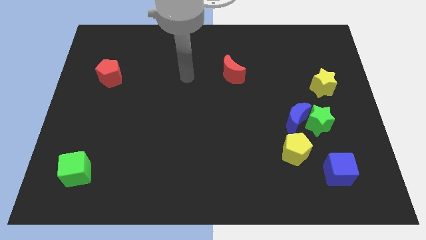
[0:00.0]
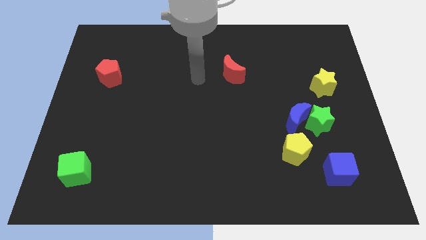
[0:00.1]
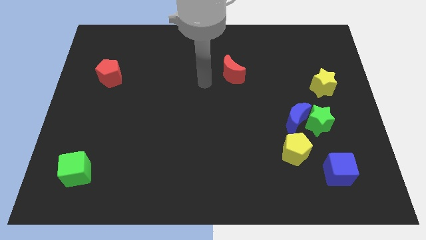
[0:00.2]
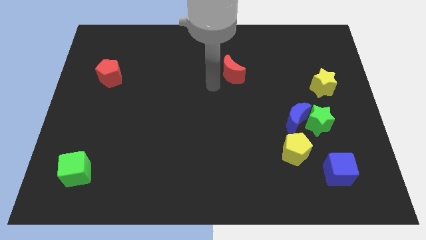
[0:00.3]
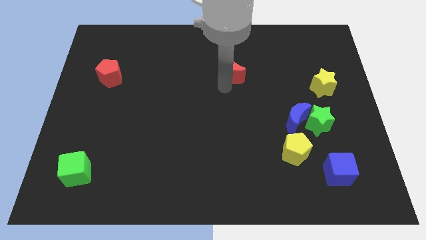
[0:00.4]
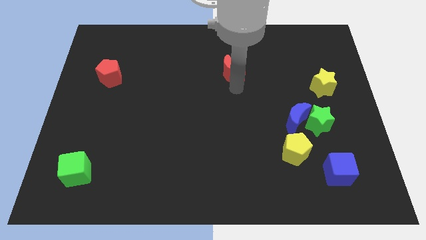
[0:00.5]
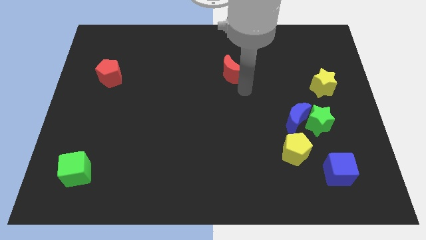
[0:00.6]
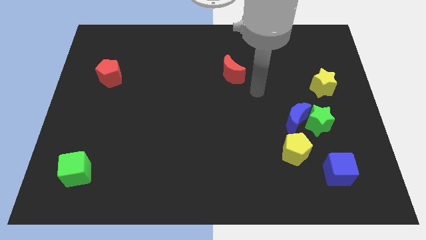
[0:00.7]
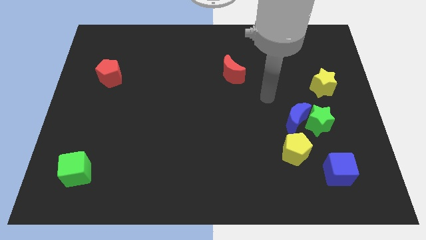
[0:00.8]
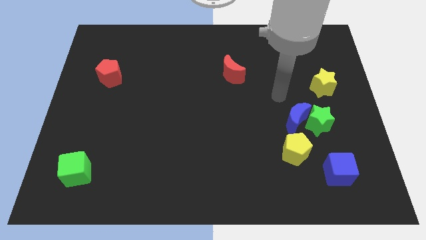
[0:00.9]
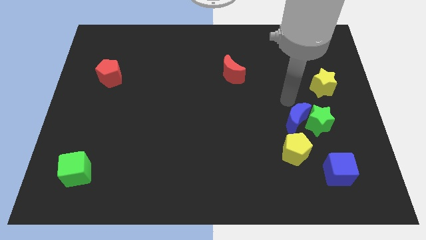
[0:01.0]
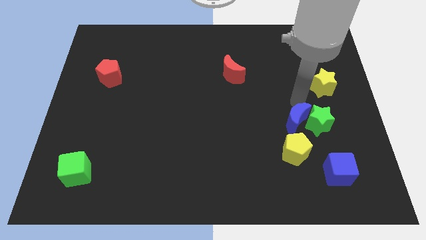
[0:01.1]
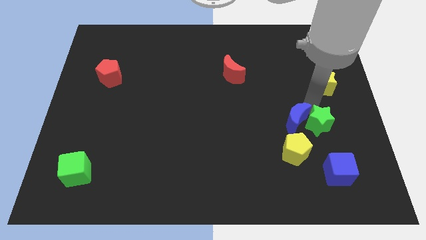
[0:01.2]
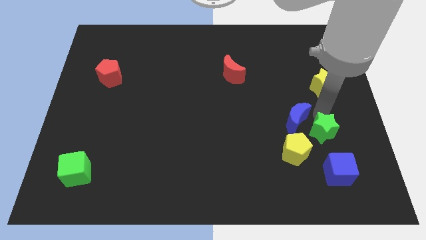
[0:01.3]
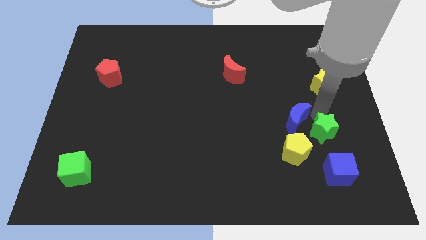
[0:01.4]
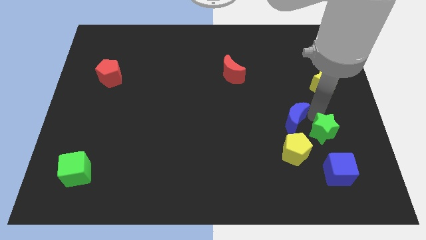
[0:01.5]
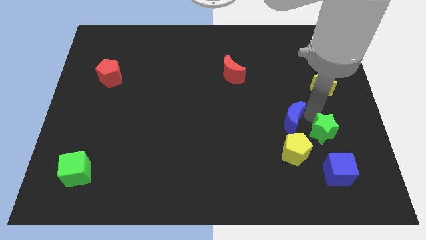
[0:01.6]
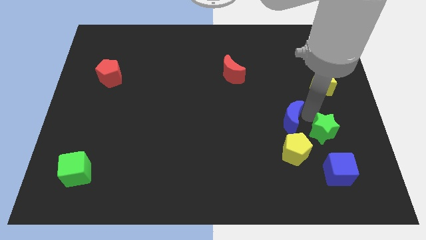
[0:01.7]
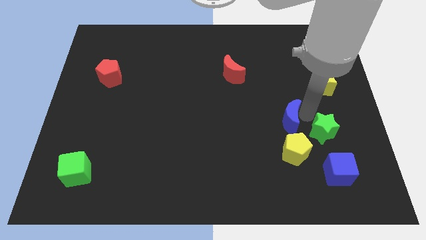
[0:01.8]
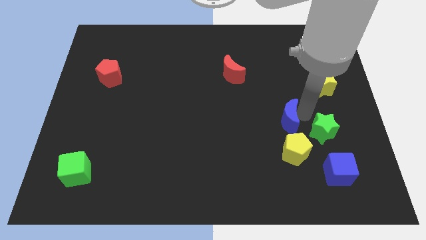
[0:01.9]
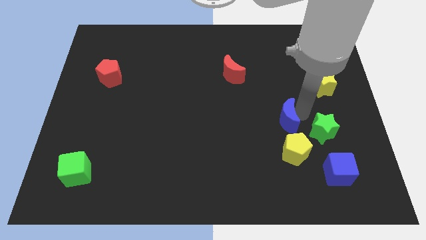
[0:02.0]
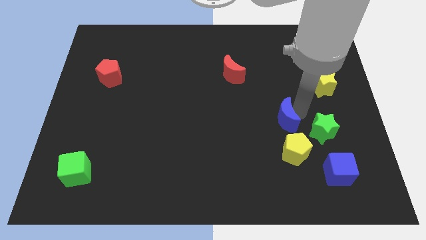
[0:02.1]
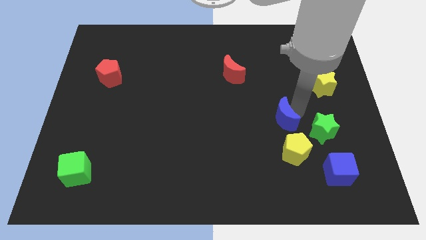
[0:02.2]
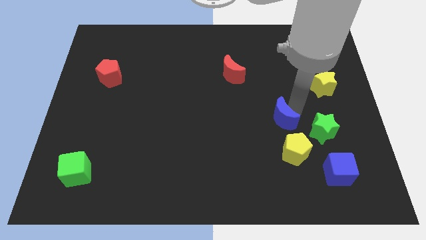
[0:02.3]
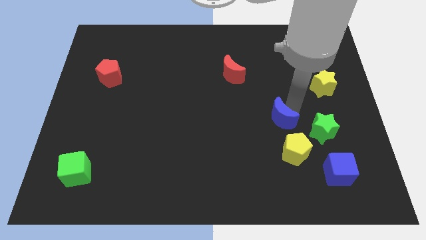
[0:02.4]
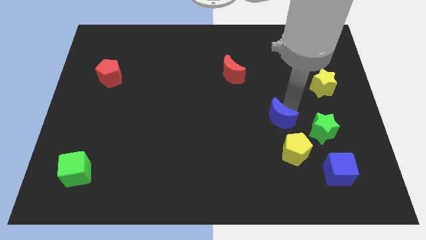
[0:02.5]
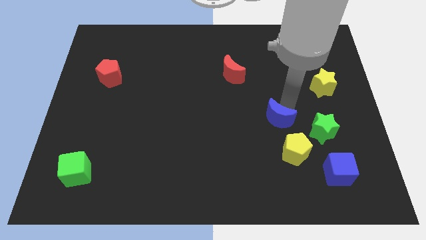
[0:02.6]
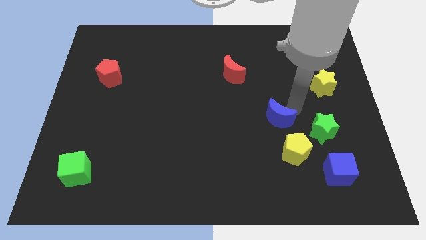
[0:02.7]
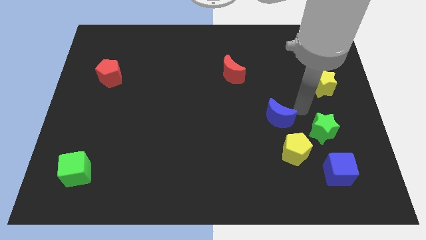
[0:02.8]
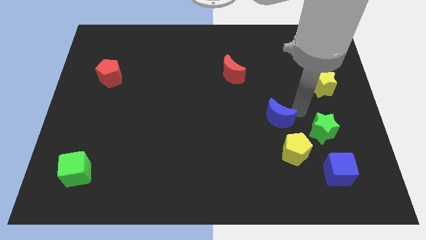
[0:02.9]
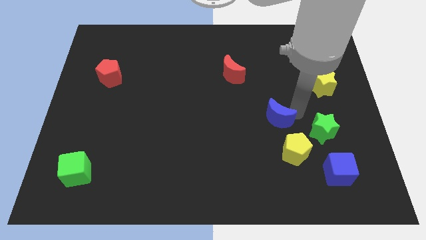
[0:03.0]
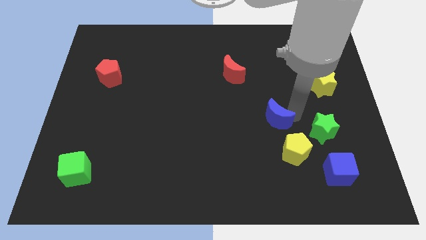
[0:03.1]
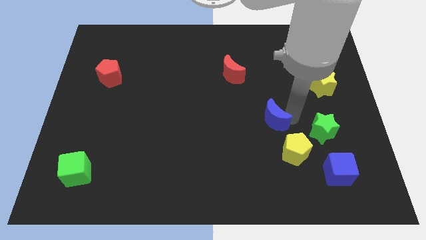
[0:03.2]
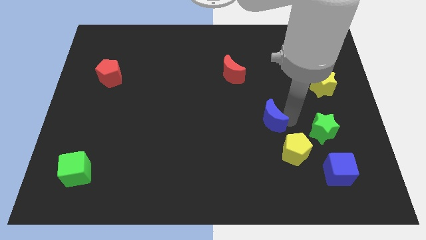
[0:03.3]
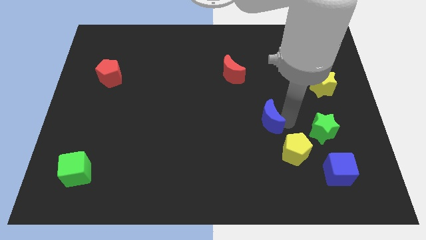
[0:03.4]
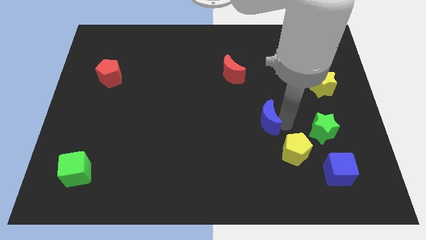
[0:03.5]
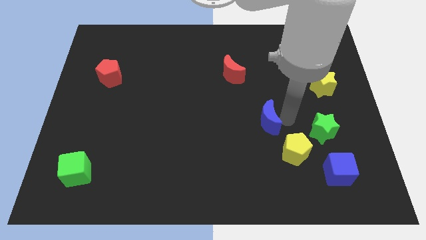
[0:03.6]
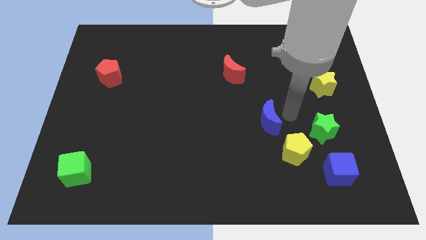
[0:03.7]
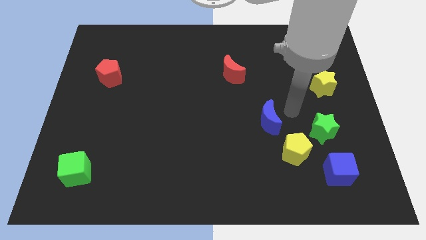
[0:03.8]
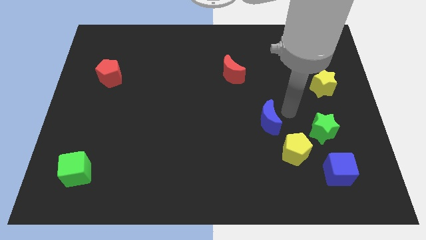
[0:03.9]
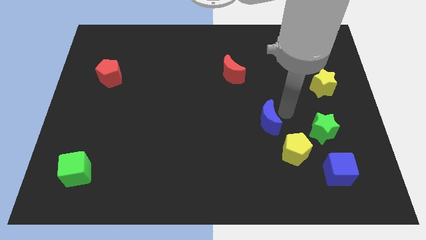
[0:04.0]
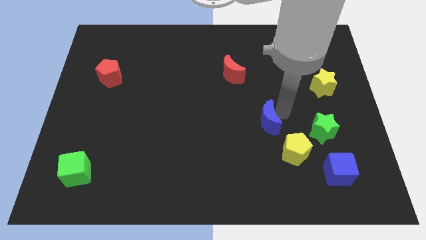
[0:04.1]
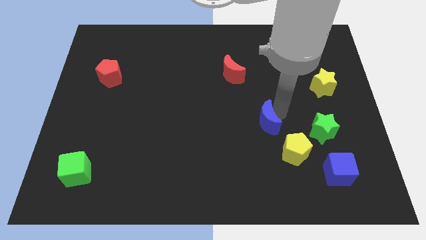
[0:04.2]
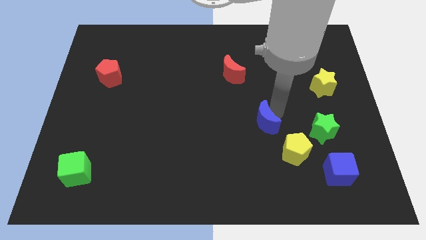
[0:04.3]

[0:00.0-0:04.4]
slightly move the blue moon left

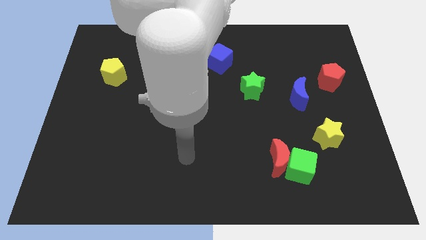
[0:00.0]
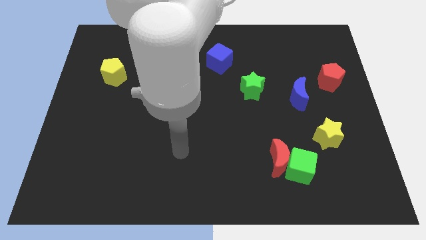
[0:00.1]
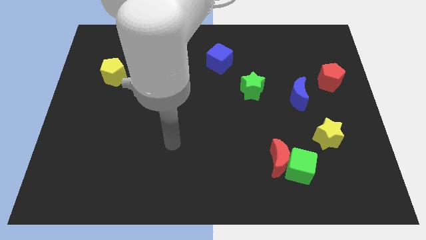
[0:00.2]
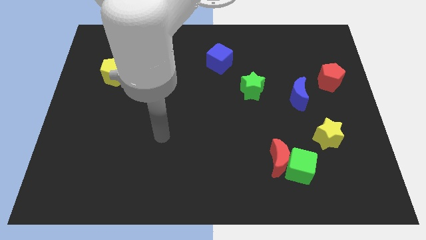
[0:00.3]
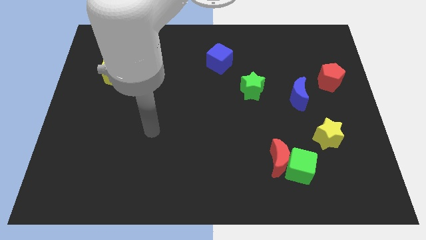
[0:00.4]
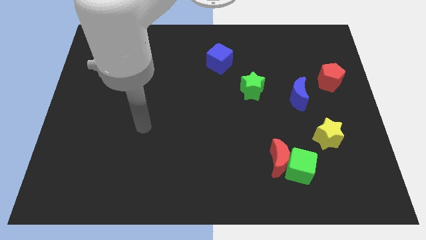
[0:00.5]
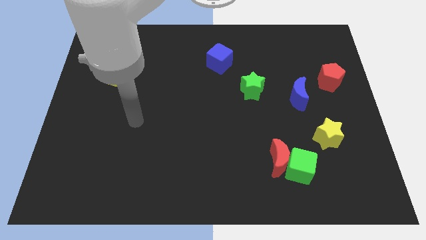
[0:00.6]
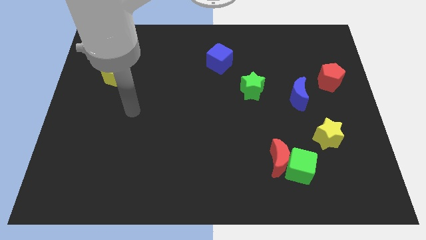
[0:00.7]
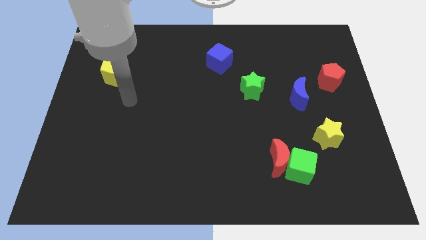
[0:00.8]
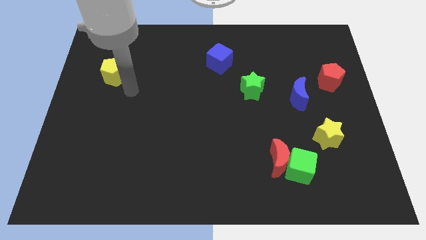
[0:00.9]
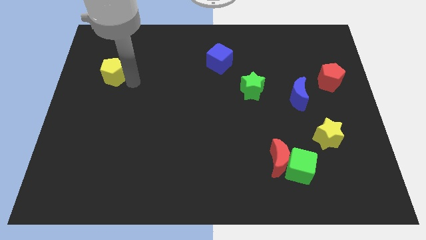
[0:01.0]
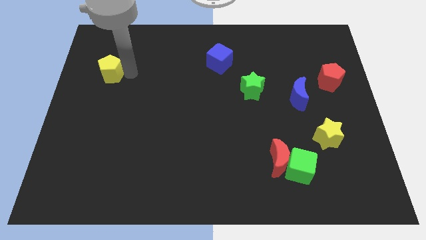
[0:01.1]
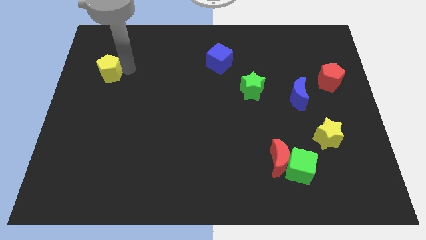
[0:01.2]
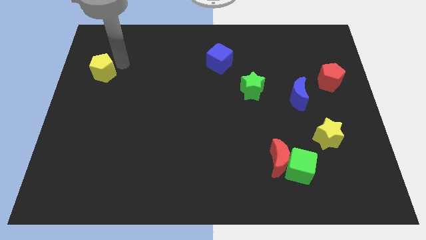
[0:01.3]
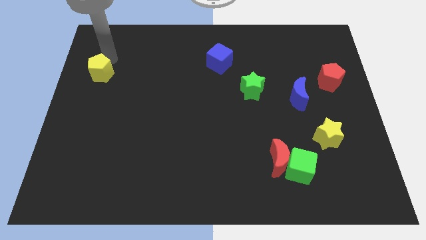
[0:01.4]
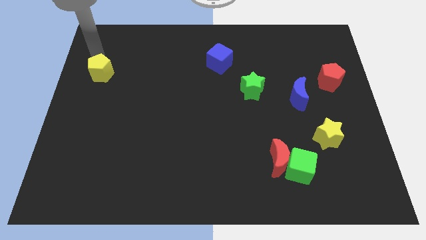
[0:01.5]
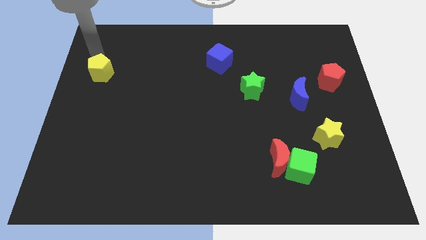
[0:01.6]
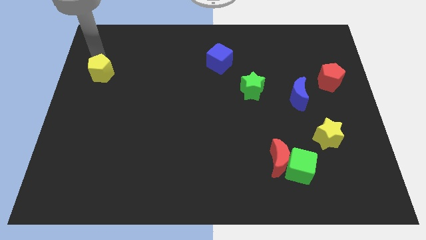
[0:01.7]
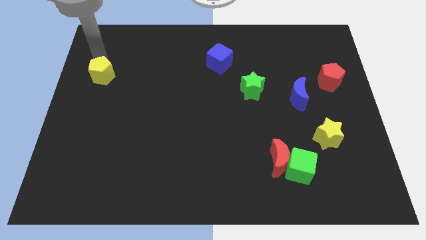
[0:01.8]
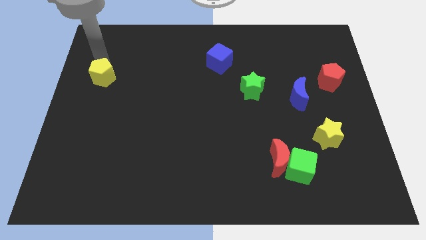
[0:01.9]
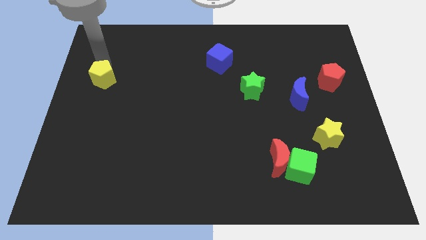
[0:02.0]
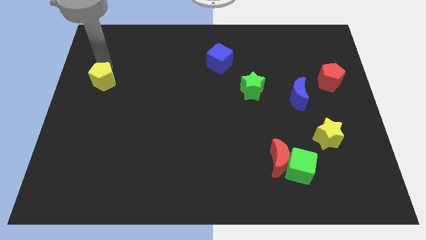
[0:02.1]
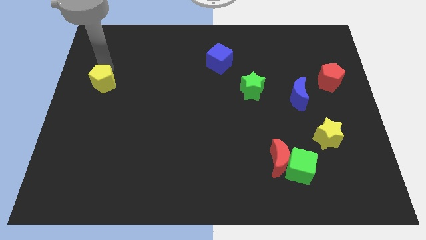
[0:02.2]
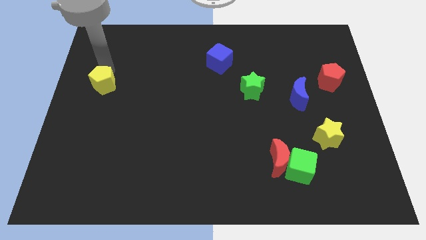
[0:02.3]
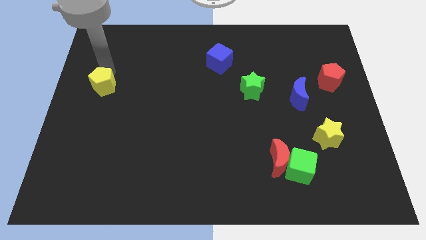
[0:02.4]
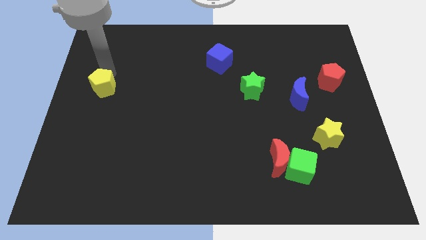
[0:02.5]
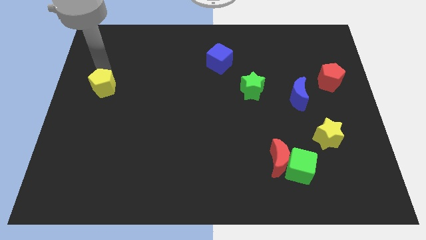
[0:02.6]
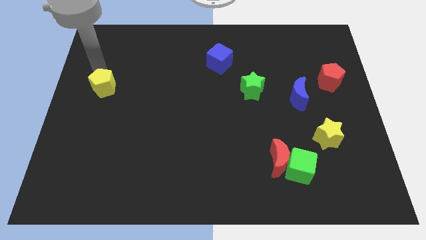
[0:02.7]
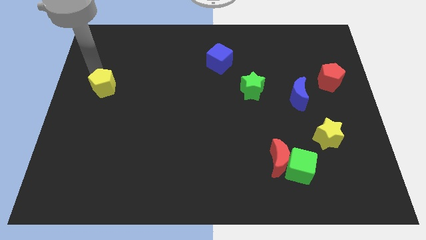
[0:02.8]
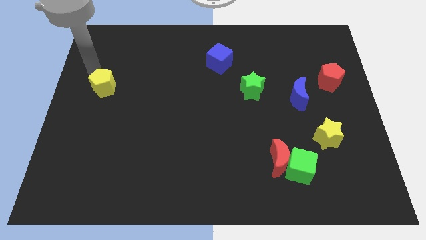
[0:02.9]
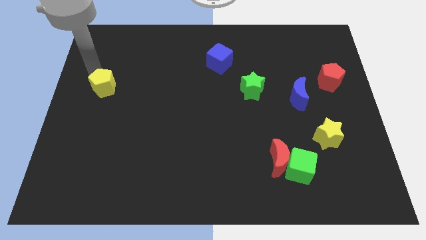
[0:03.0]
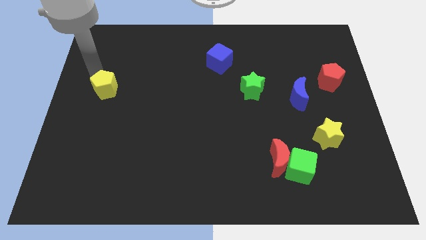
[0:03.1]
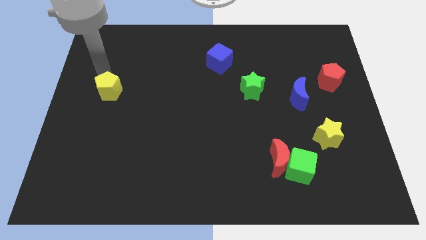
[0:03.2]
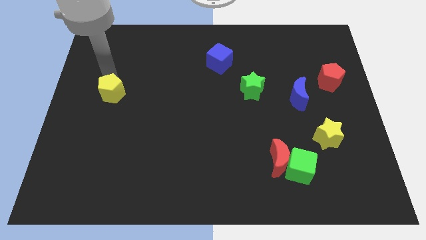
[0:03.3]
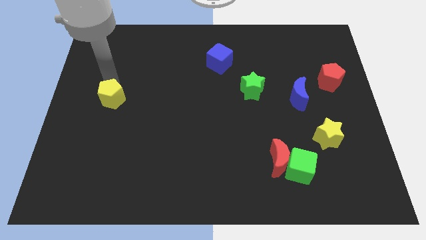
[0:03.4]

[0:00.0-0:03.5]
slide the yellow pentagon a little down
